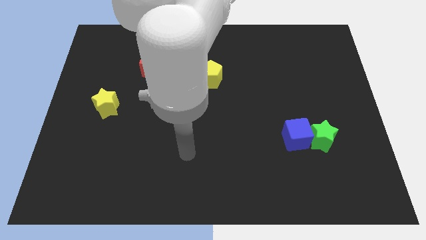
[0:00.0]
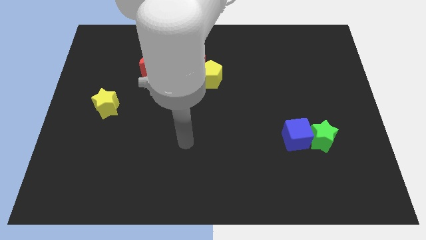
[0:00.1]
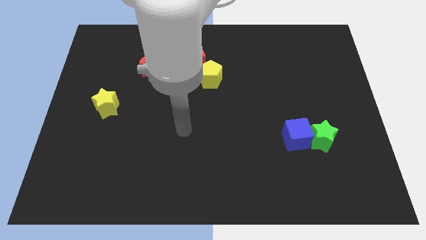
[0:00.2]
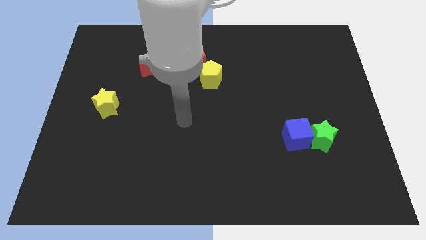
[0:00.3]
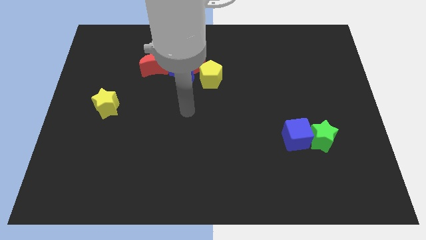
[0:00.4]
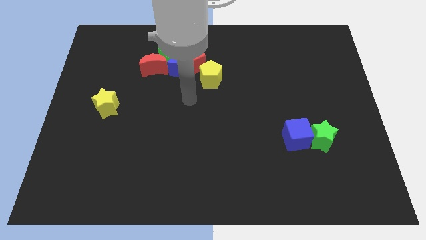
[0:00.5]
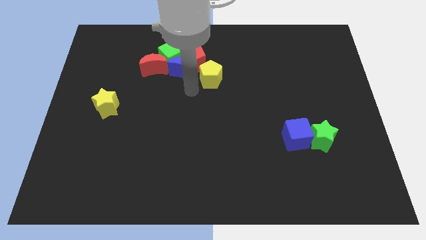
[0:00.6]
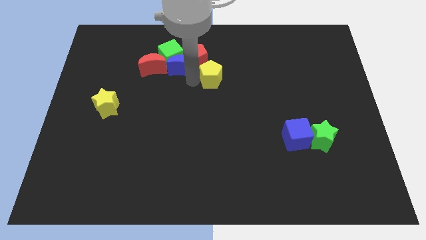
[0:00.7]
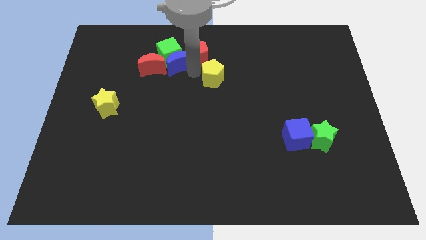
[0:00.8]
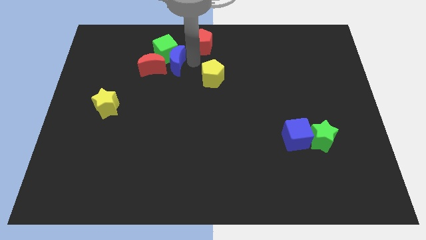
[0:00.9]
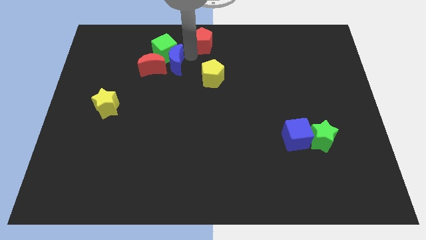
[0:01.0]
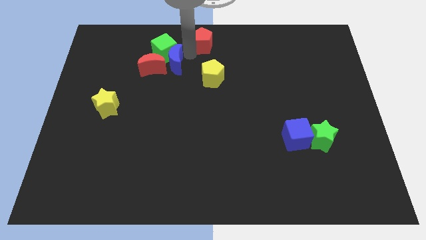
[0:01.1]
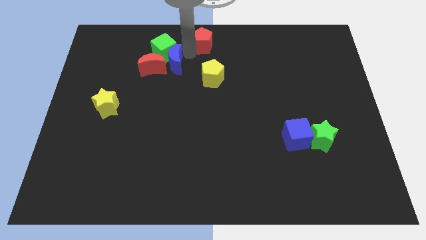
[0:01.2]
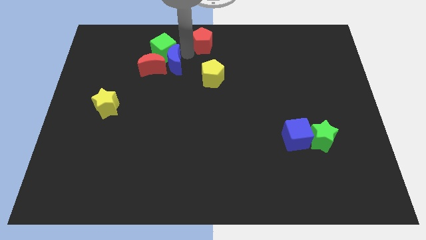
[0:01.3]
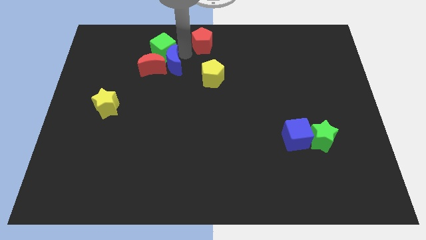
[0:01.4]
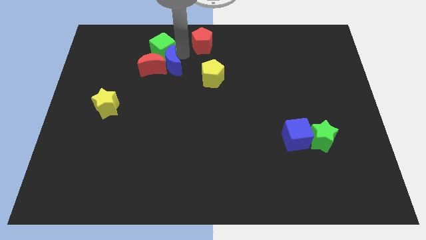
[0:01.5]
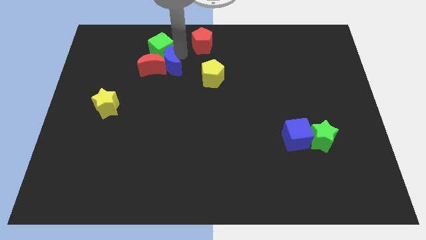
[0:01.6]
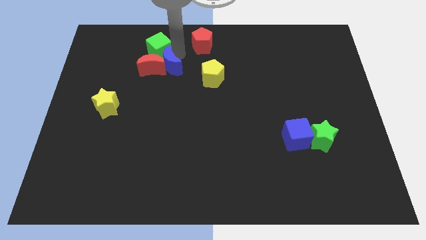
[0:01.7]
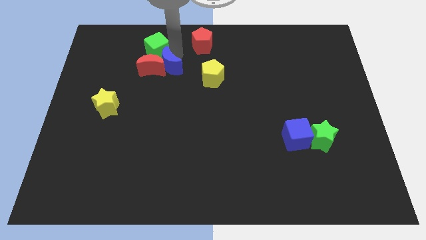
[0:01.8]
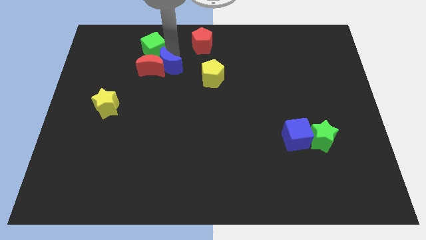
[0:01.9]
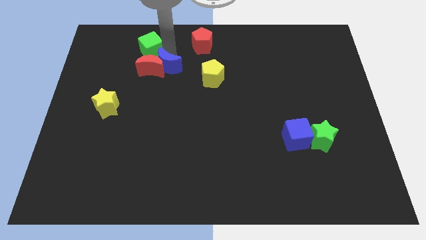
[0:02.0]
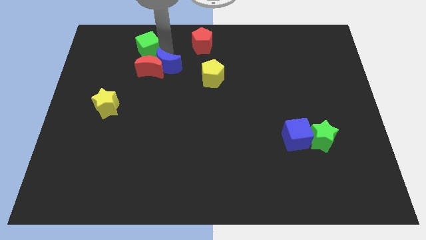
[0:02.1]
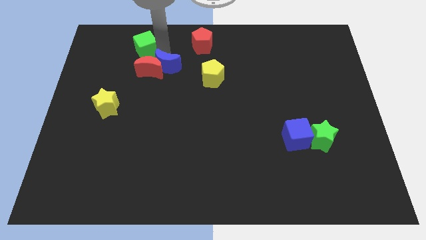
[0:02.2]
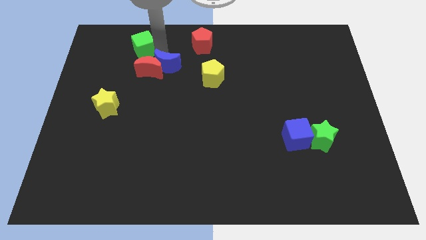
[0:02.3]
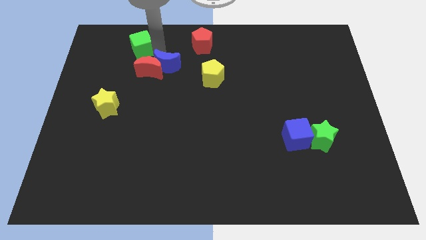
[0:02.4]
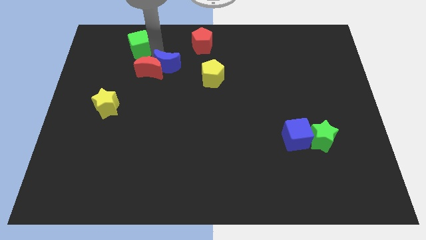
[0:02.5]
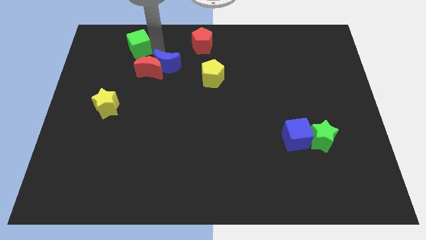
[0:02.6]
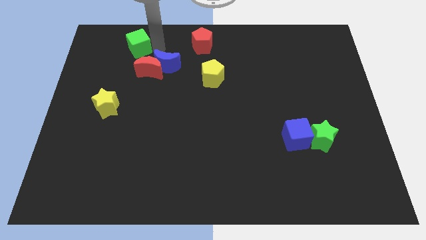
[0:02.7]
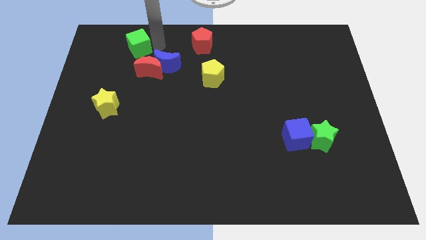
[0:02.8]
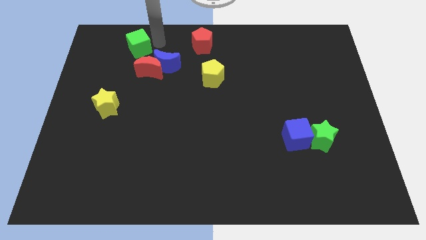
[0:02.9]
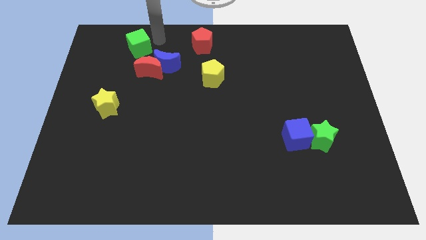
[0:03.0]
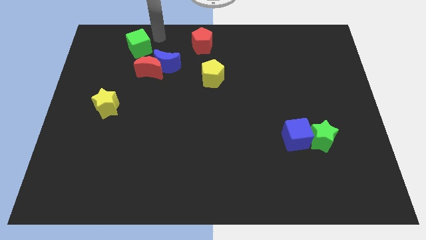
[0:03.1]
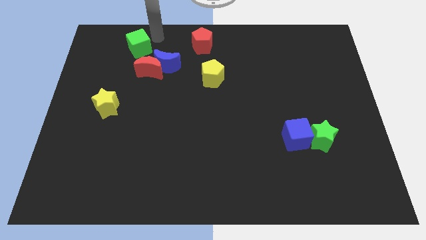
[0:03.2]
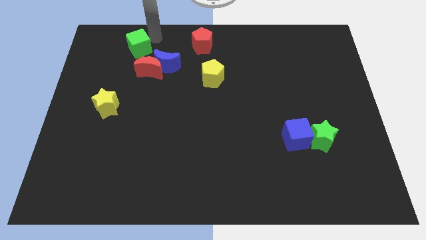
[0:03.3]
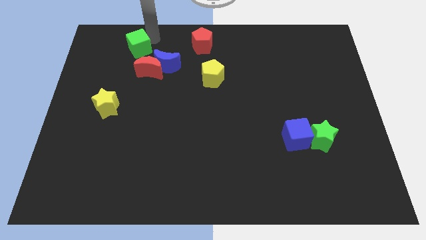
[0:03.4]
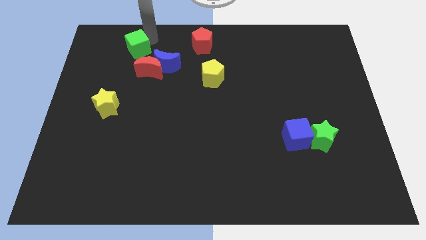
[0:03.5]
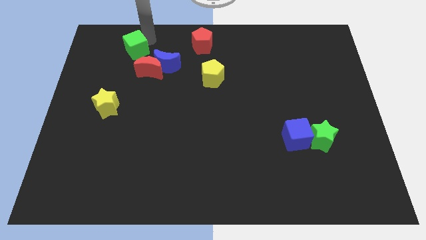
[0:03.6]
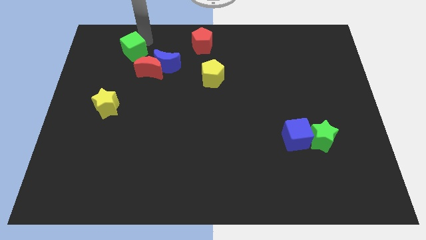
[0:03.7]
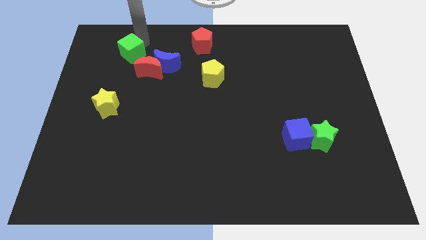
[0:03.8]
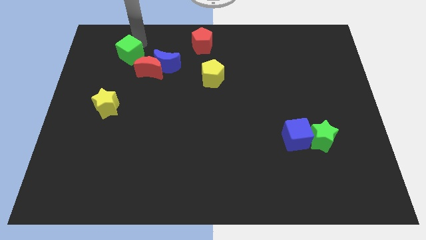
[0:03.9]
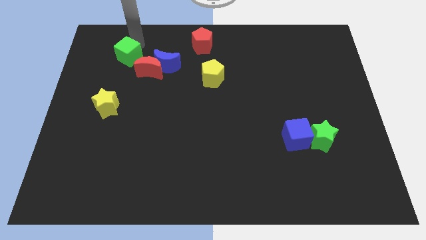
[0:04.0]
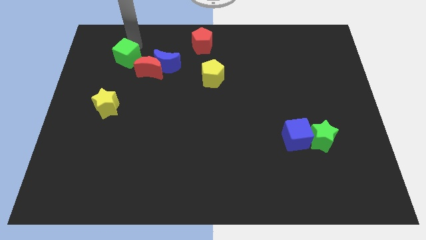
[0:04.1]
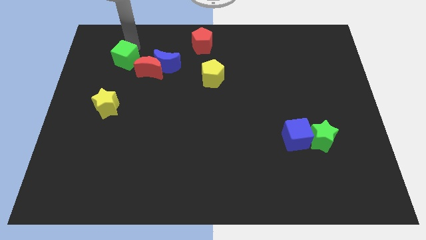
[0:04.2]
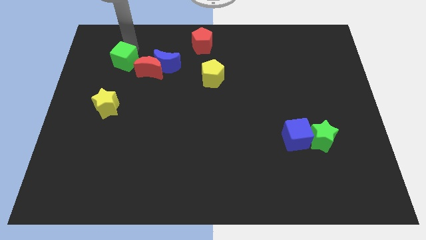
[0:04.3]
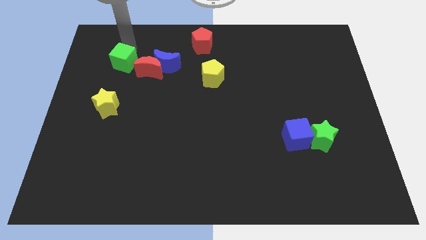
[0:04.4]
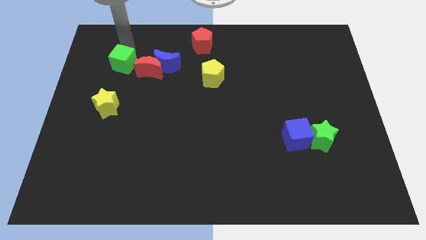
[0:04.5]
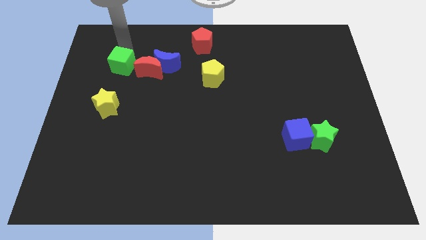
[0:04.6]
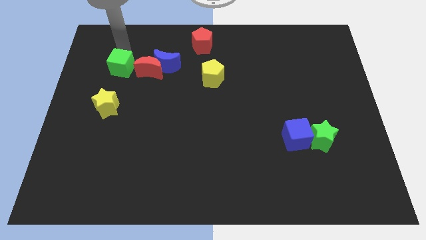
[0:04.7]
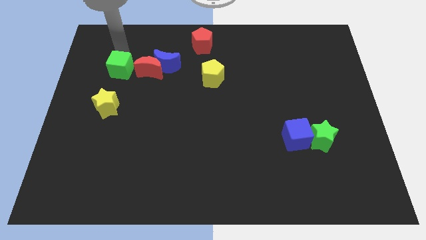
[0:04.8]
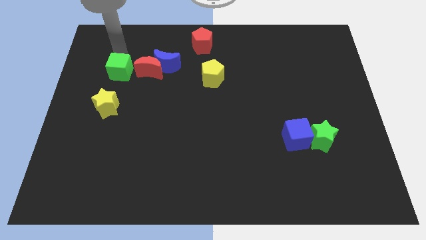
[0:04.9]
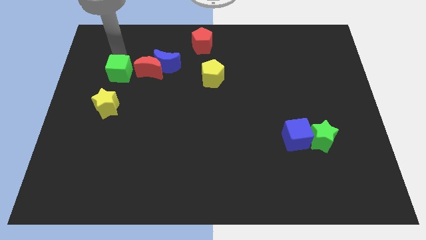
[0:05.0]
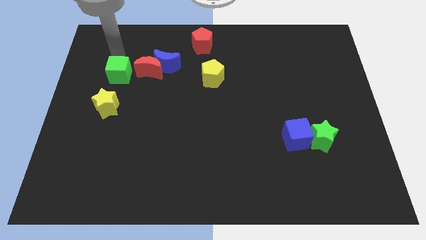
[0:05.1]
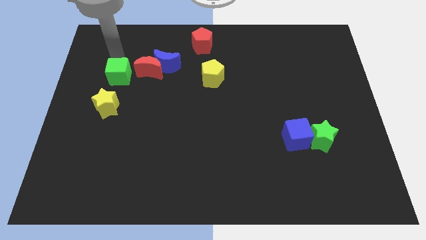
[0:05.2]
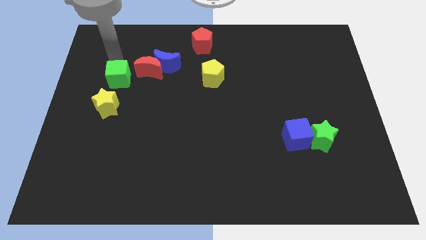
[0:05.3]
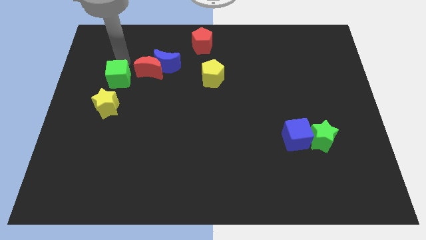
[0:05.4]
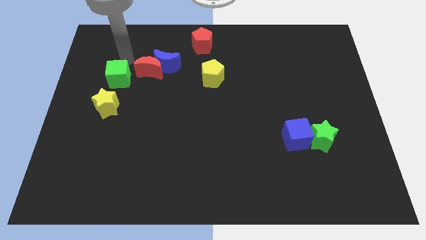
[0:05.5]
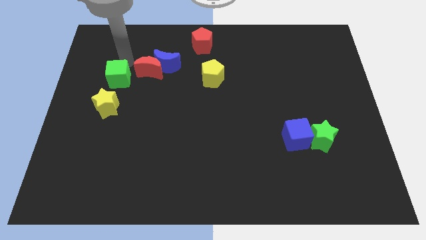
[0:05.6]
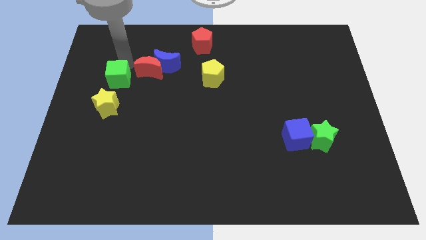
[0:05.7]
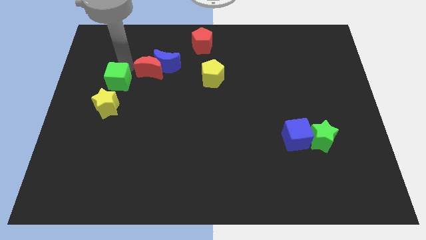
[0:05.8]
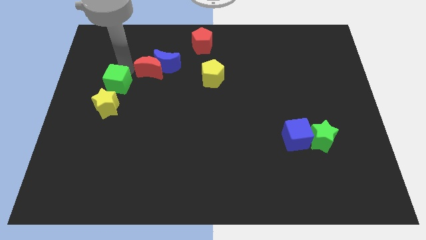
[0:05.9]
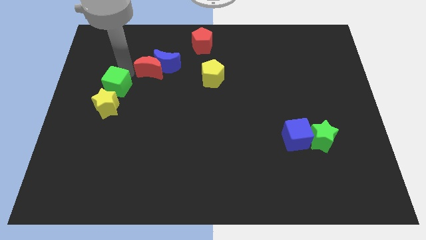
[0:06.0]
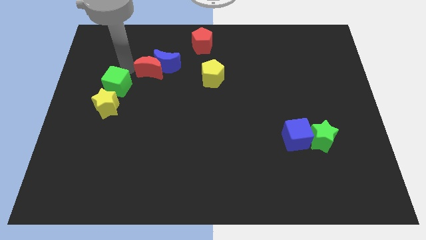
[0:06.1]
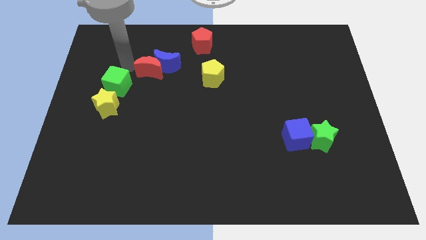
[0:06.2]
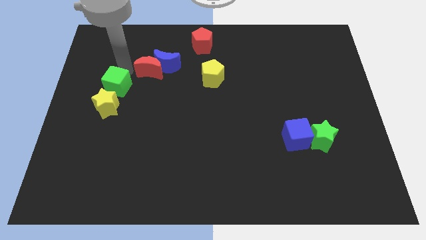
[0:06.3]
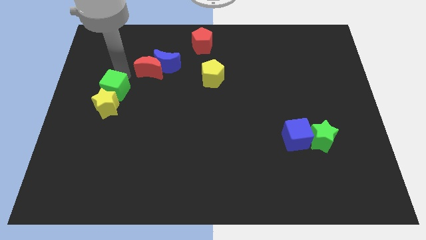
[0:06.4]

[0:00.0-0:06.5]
push the green cube next to the yellow star
